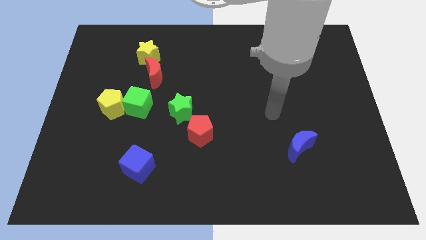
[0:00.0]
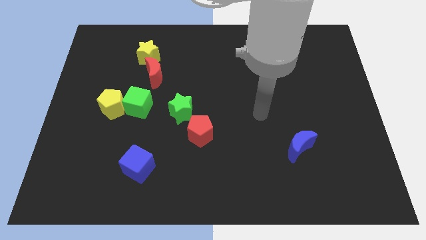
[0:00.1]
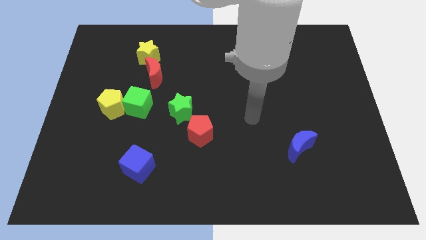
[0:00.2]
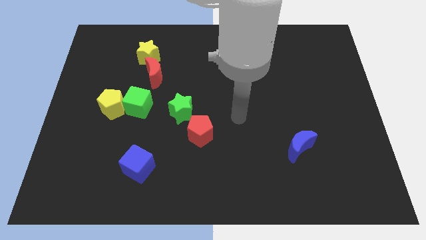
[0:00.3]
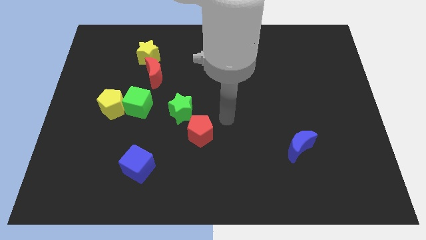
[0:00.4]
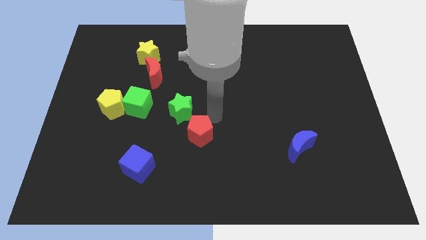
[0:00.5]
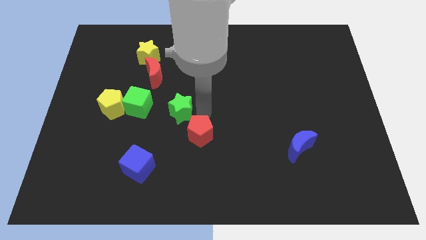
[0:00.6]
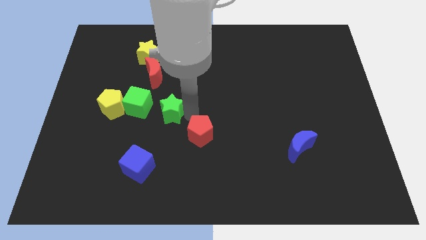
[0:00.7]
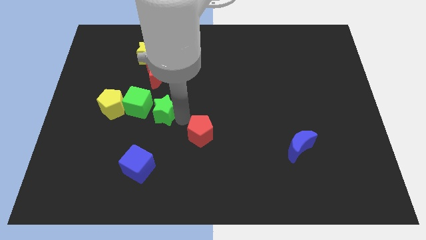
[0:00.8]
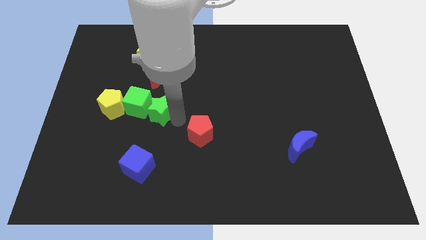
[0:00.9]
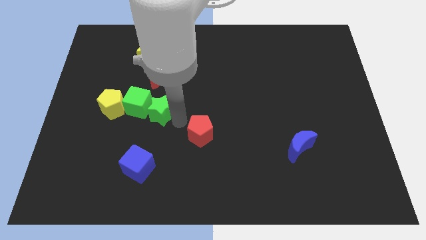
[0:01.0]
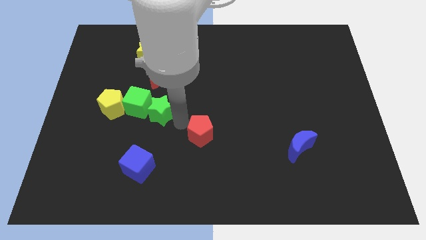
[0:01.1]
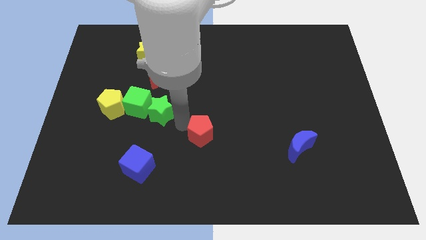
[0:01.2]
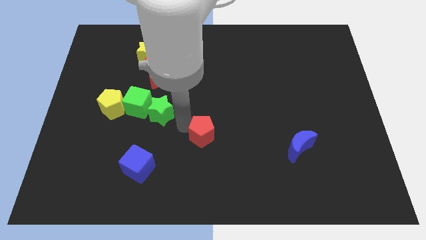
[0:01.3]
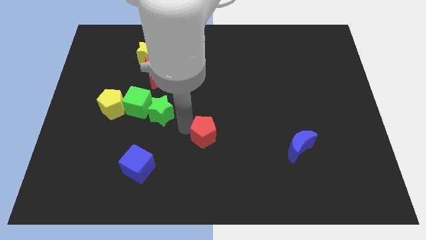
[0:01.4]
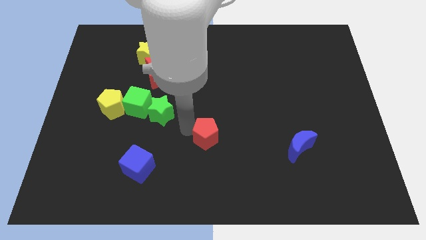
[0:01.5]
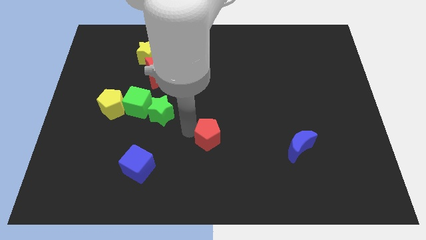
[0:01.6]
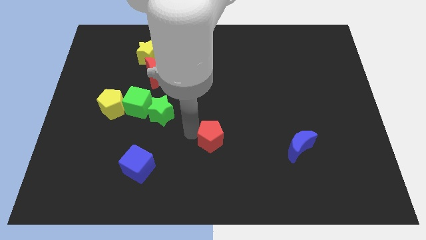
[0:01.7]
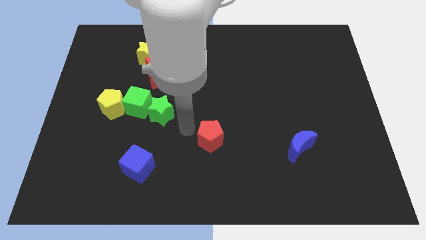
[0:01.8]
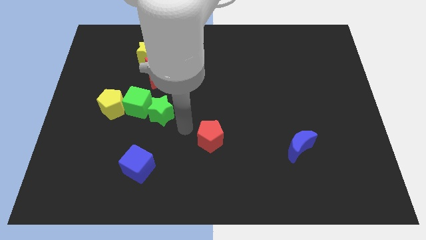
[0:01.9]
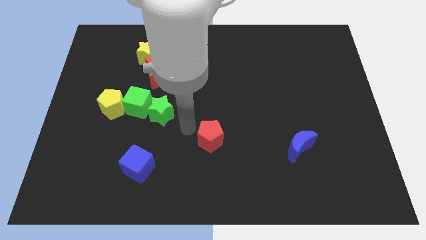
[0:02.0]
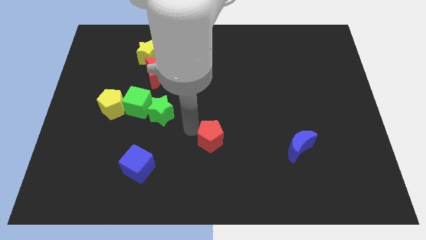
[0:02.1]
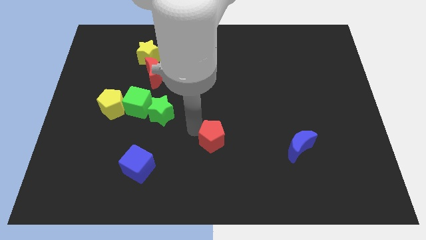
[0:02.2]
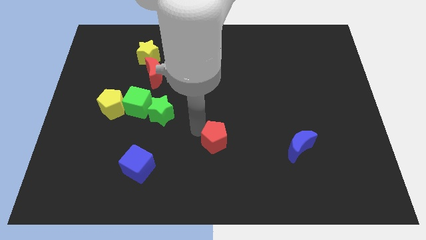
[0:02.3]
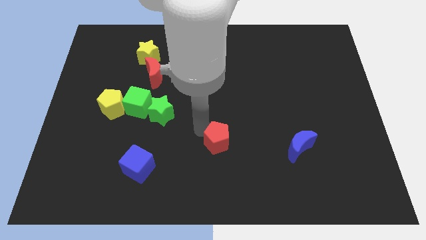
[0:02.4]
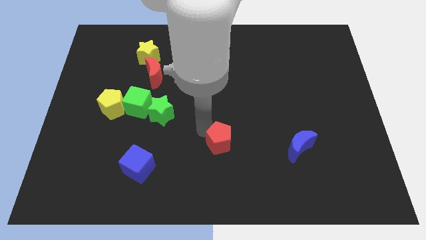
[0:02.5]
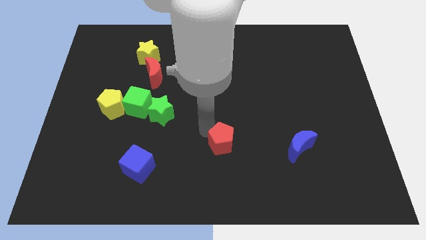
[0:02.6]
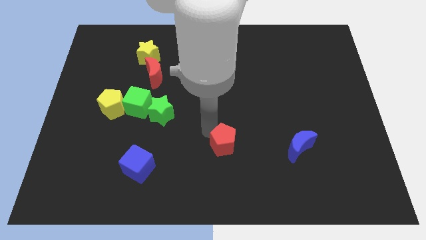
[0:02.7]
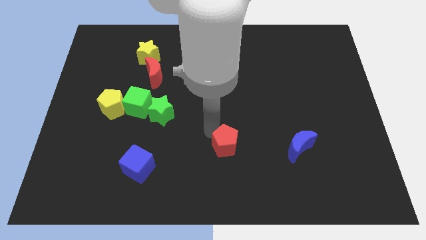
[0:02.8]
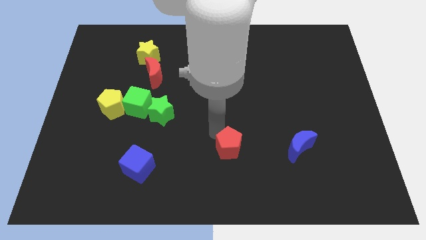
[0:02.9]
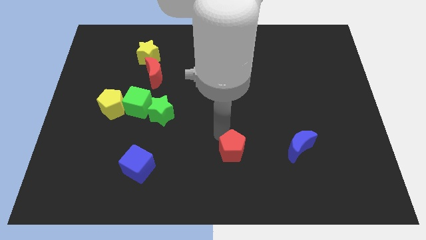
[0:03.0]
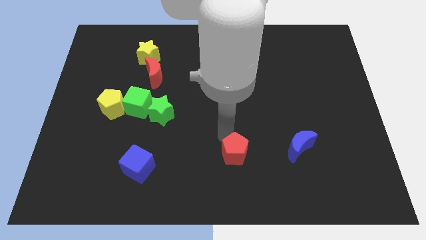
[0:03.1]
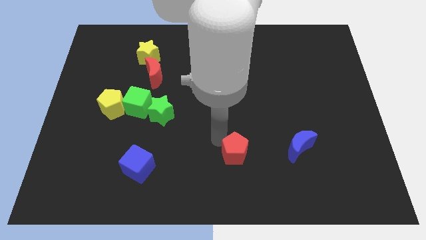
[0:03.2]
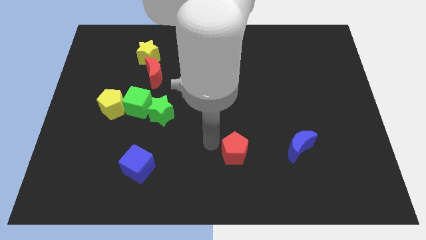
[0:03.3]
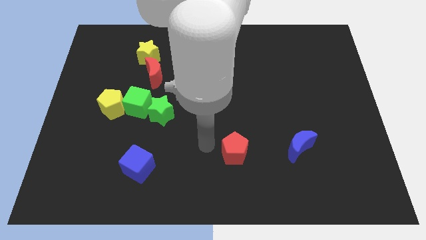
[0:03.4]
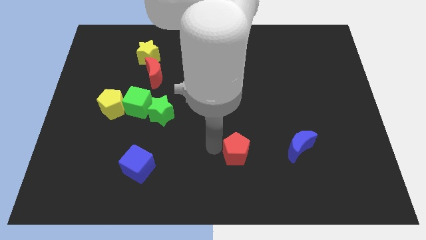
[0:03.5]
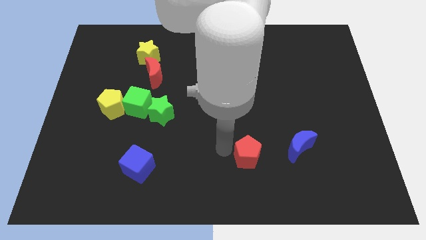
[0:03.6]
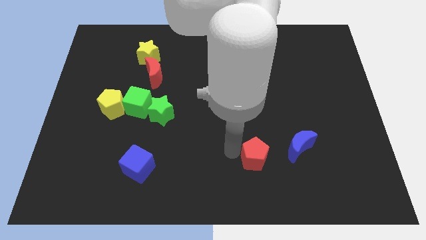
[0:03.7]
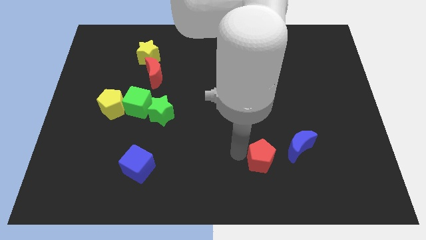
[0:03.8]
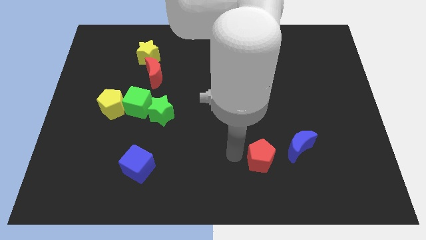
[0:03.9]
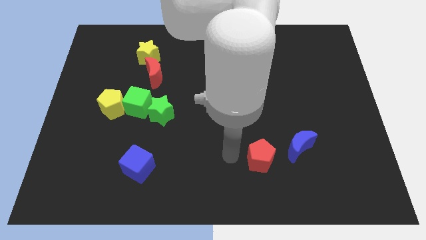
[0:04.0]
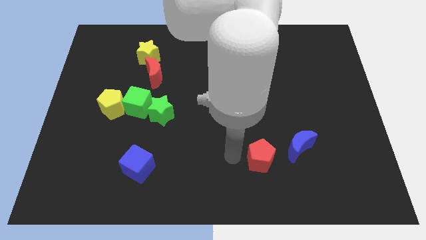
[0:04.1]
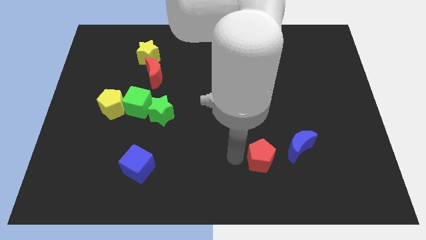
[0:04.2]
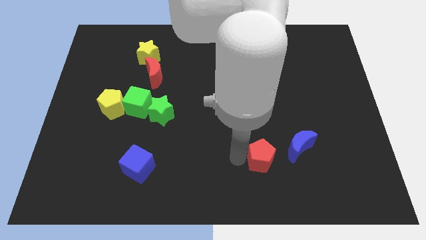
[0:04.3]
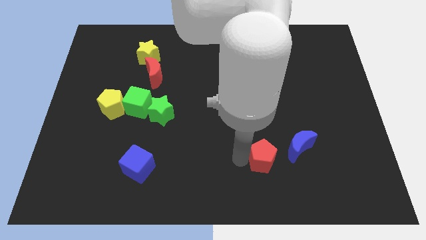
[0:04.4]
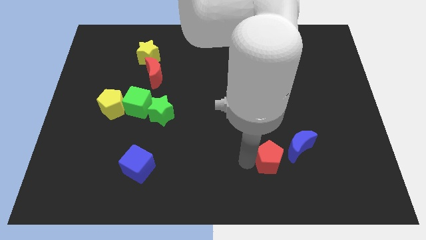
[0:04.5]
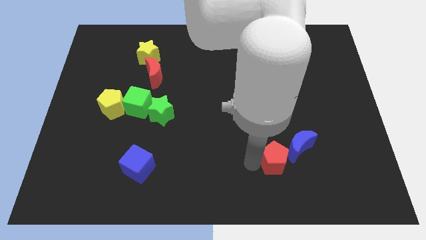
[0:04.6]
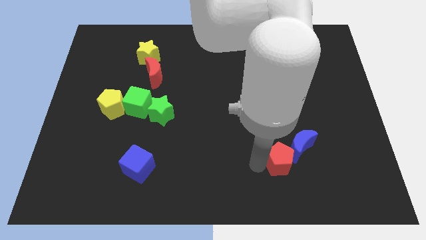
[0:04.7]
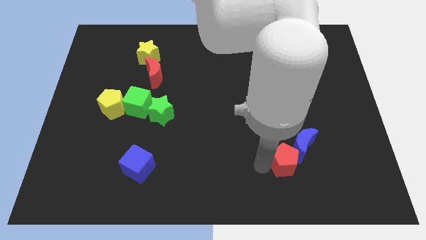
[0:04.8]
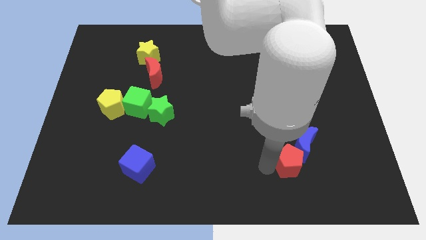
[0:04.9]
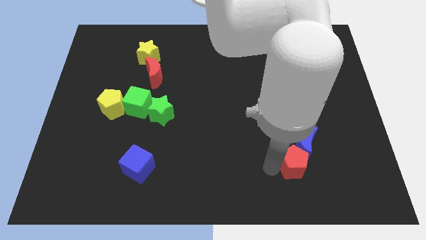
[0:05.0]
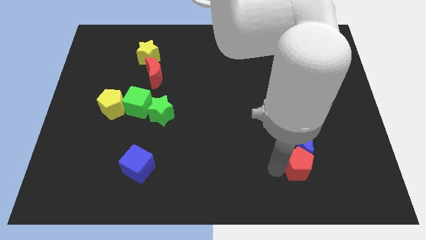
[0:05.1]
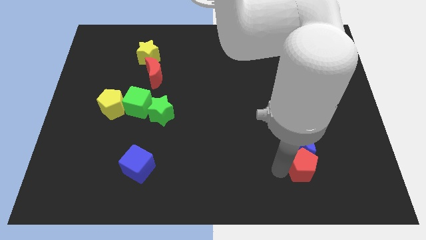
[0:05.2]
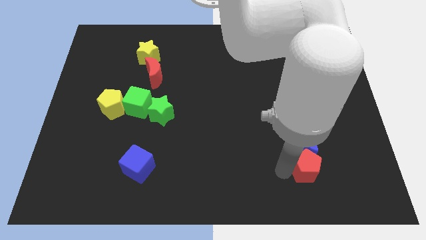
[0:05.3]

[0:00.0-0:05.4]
put the red pentagon diagonally down and to the right of the blue moon

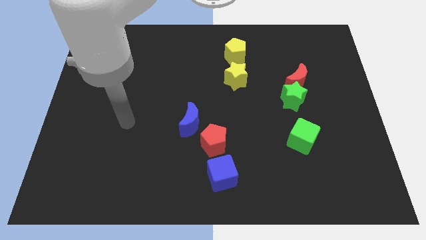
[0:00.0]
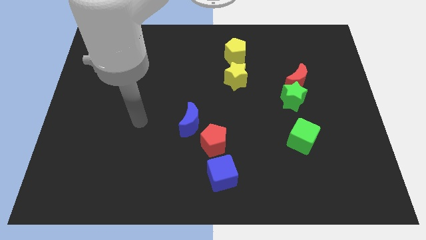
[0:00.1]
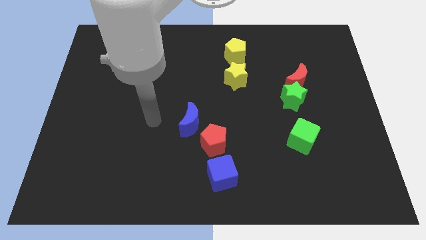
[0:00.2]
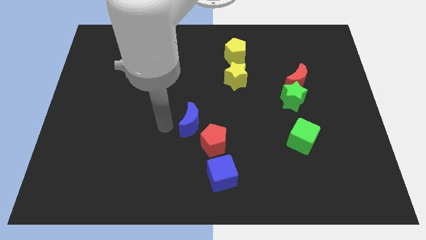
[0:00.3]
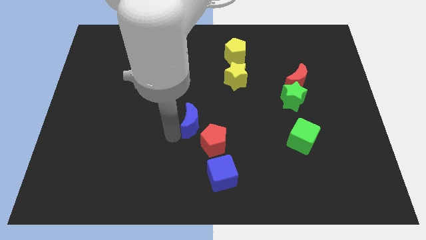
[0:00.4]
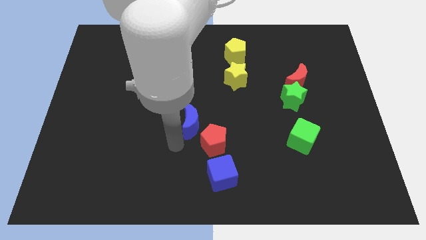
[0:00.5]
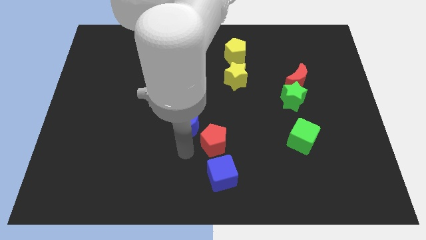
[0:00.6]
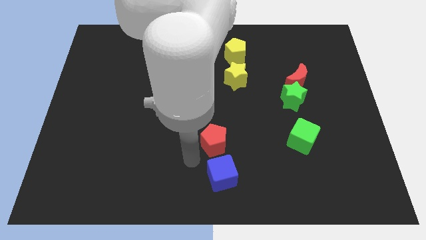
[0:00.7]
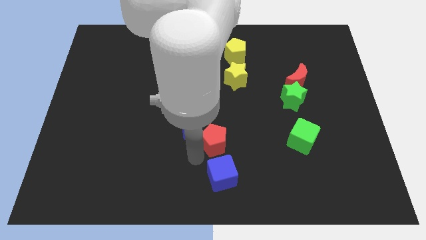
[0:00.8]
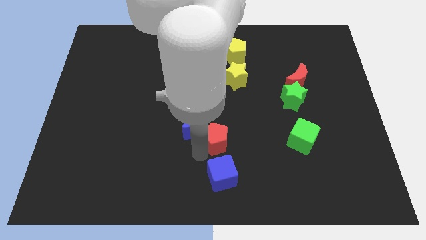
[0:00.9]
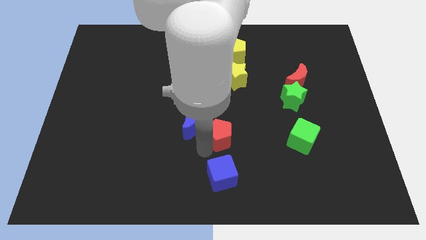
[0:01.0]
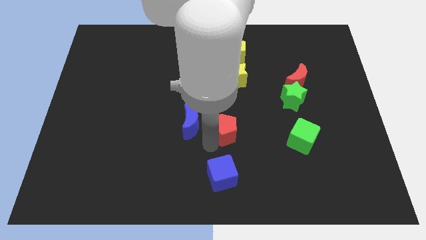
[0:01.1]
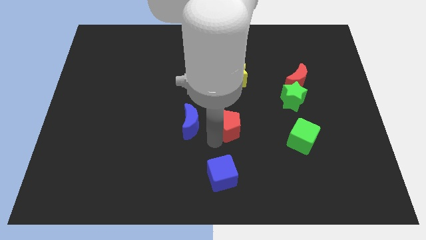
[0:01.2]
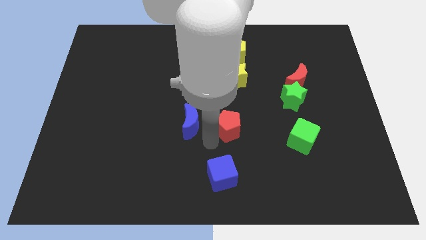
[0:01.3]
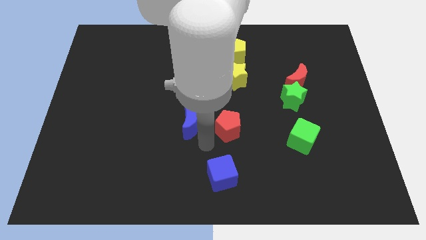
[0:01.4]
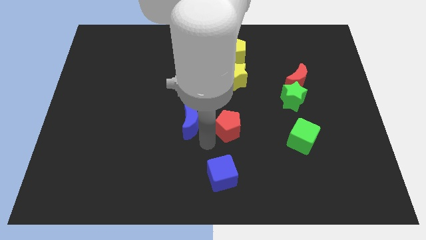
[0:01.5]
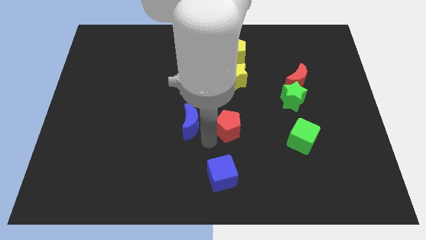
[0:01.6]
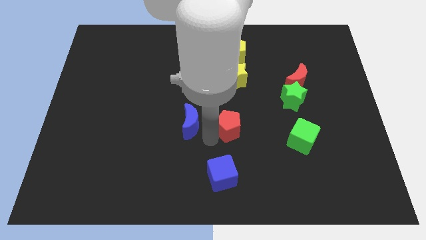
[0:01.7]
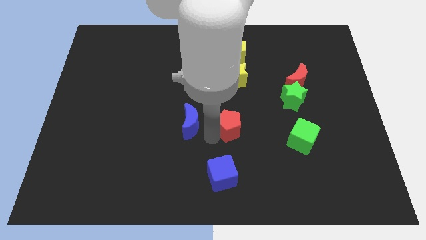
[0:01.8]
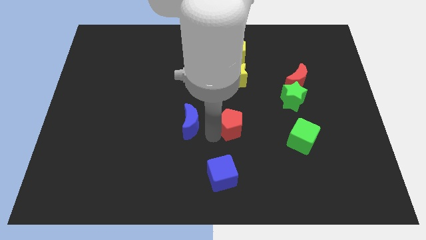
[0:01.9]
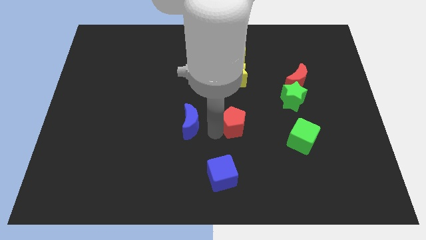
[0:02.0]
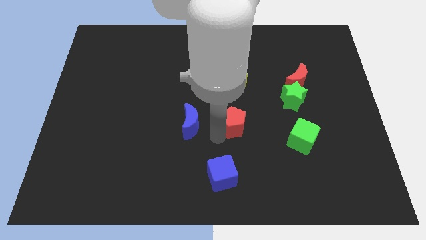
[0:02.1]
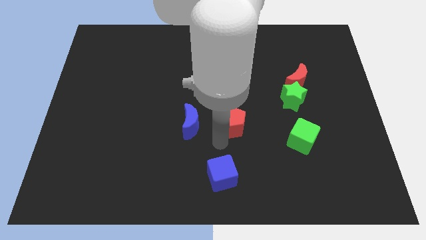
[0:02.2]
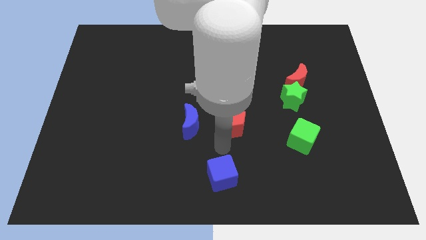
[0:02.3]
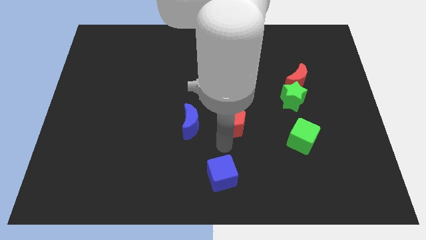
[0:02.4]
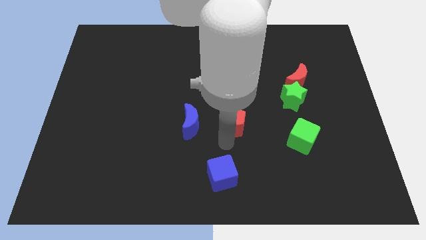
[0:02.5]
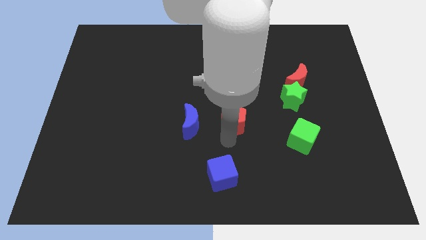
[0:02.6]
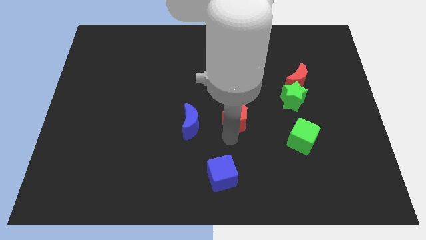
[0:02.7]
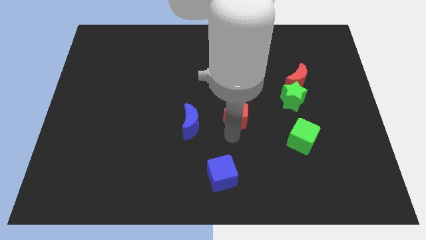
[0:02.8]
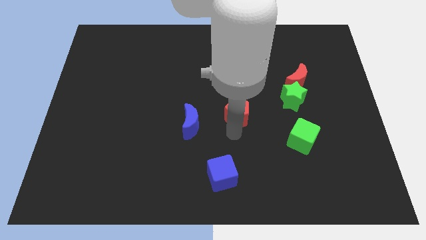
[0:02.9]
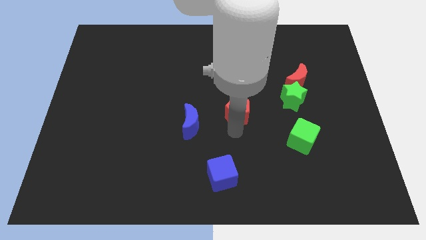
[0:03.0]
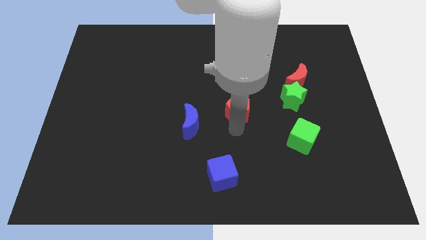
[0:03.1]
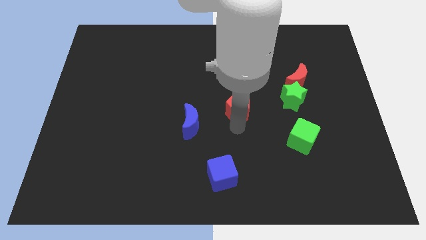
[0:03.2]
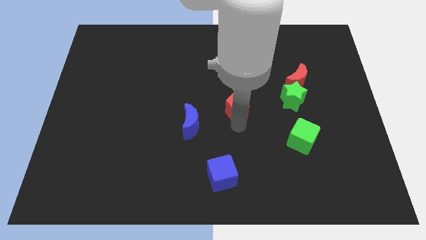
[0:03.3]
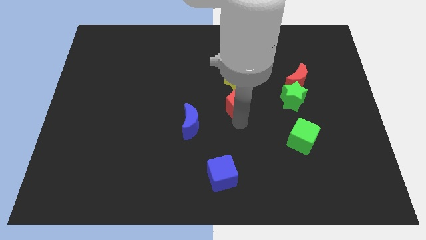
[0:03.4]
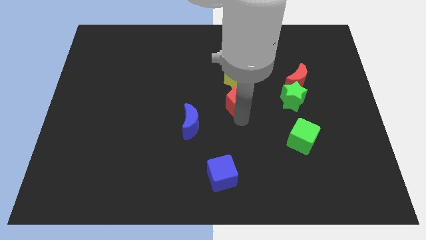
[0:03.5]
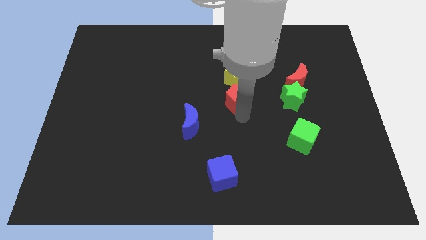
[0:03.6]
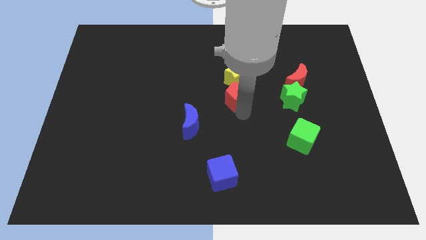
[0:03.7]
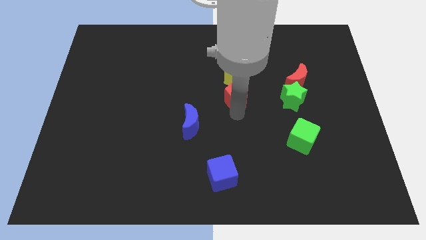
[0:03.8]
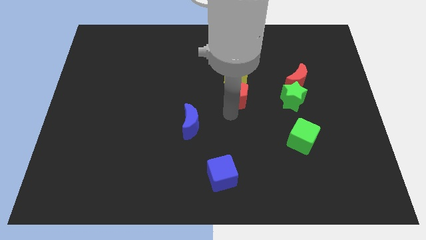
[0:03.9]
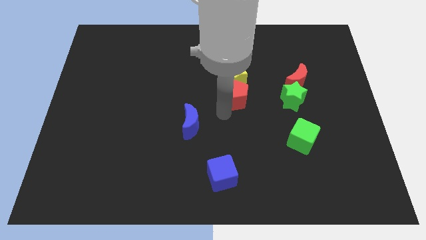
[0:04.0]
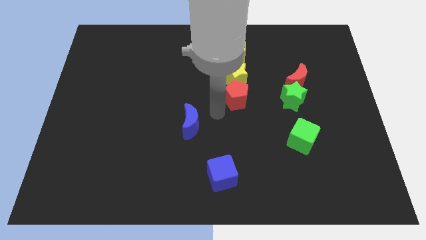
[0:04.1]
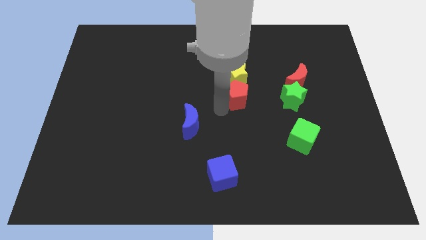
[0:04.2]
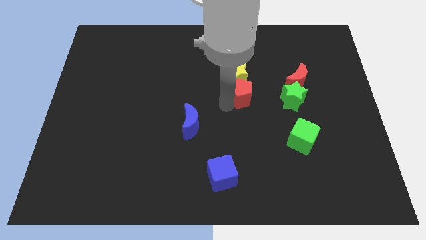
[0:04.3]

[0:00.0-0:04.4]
push the red pentagon left of the red moon
